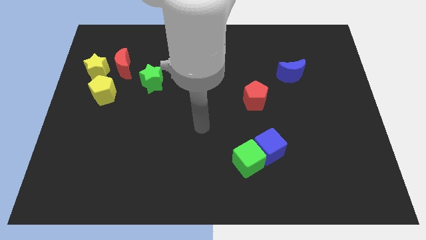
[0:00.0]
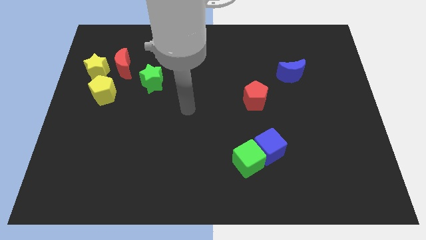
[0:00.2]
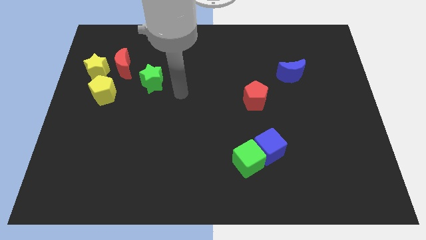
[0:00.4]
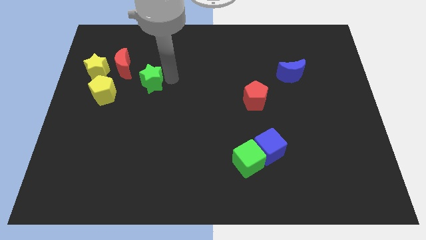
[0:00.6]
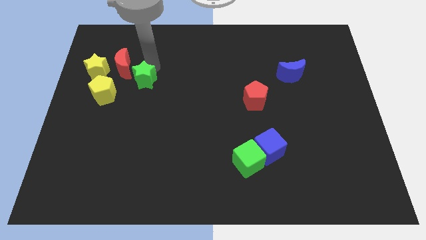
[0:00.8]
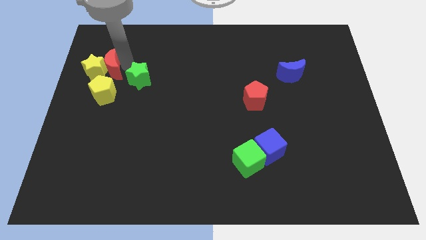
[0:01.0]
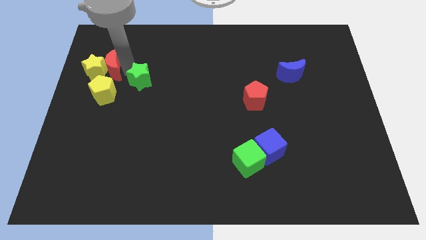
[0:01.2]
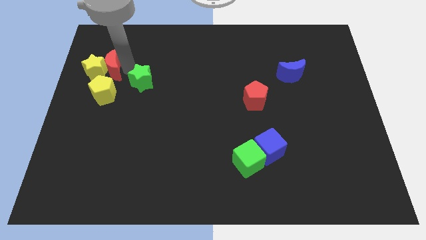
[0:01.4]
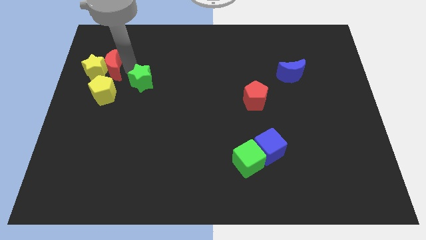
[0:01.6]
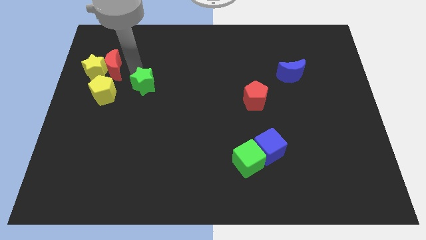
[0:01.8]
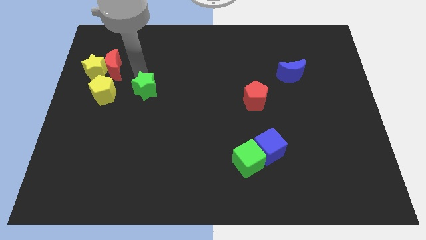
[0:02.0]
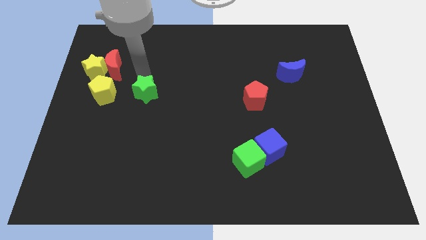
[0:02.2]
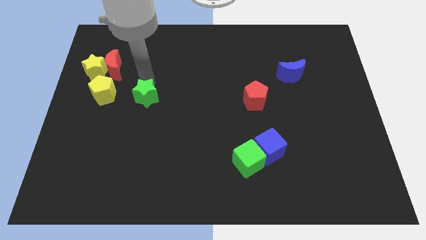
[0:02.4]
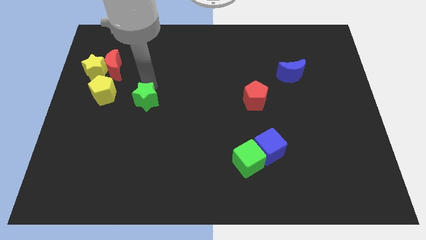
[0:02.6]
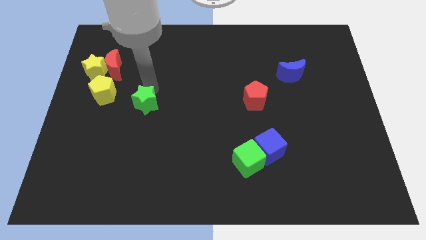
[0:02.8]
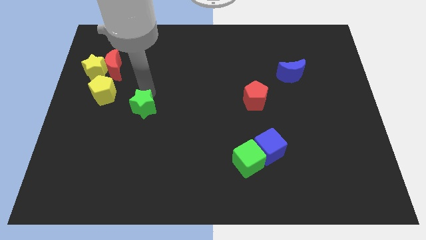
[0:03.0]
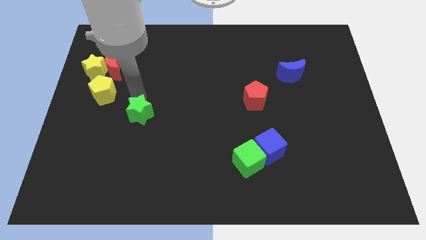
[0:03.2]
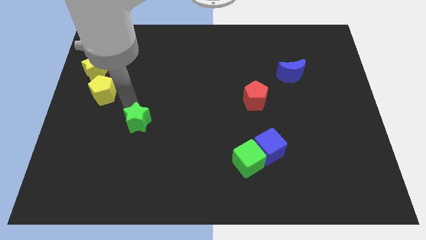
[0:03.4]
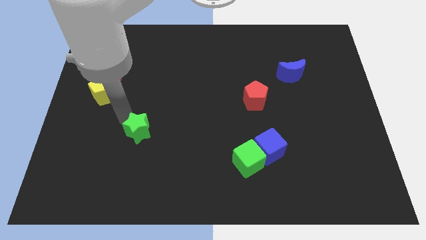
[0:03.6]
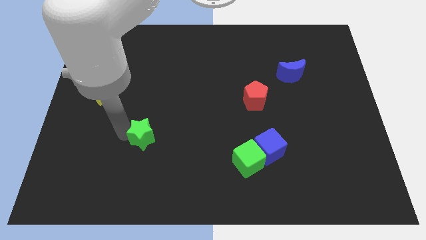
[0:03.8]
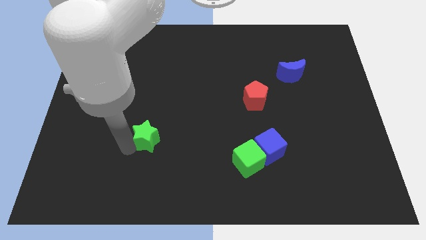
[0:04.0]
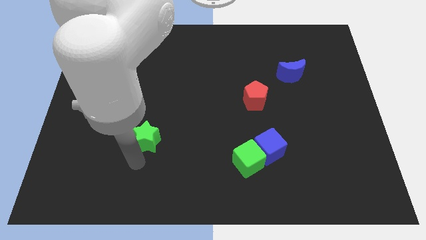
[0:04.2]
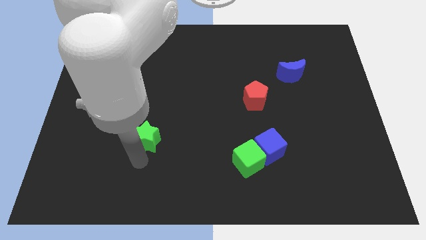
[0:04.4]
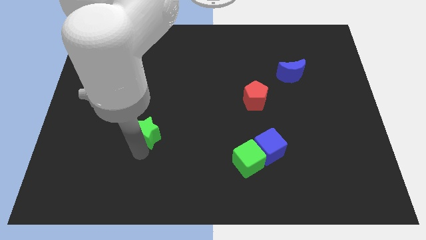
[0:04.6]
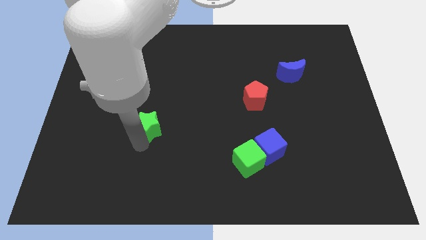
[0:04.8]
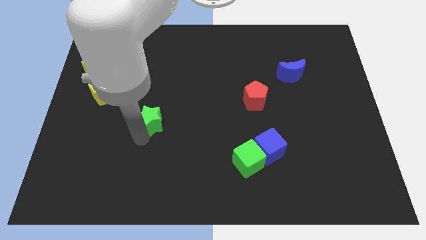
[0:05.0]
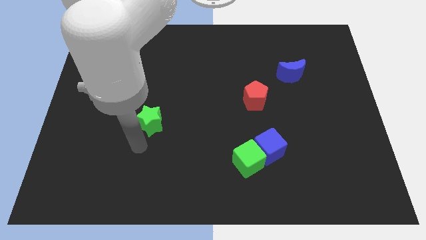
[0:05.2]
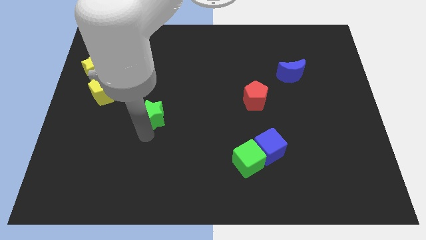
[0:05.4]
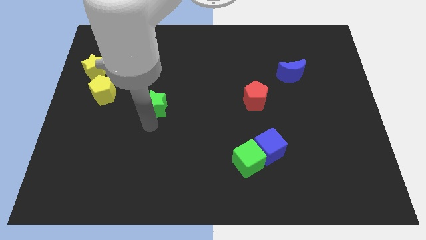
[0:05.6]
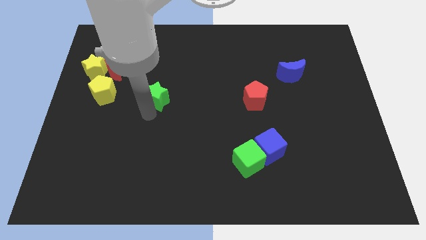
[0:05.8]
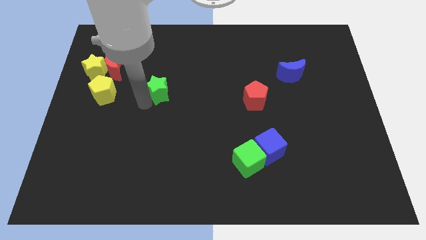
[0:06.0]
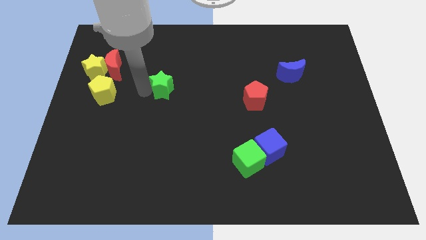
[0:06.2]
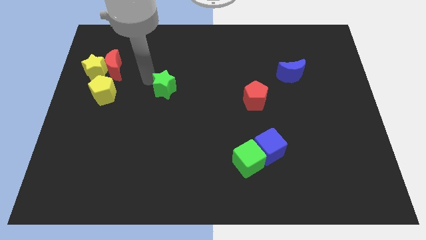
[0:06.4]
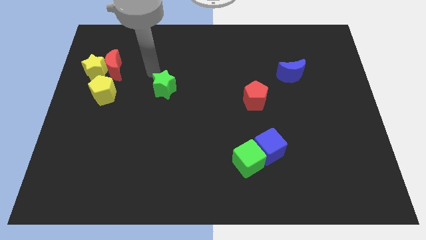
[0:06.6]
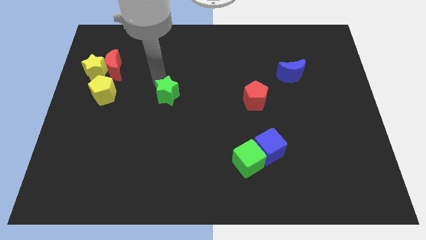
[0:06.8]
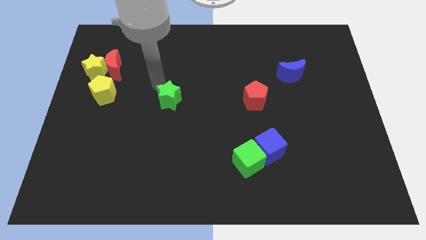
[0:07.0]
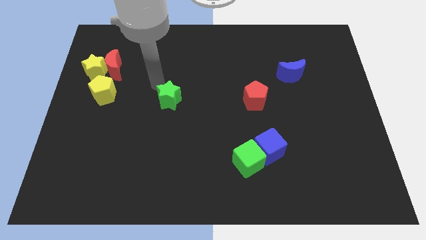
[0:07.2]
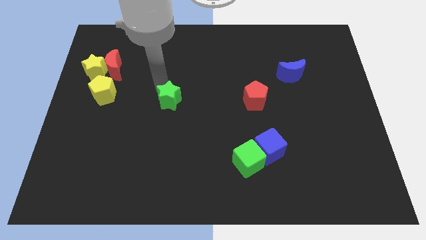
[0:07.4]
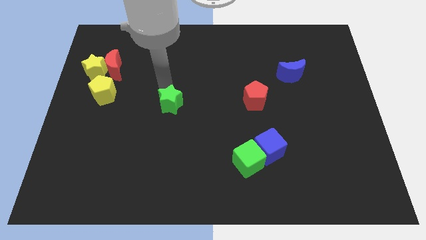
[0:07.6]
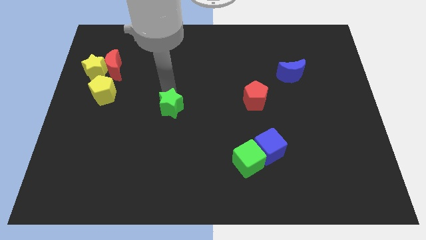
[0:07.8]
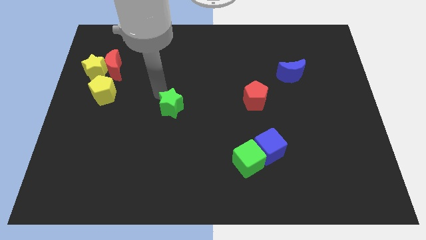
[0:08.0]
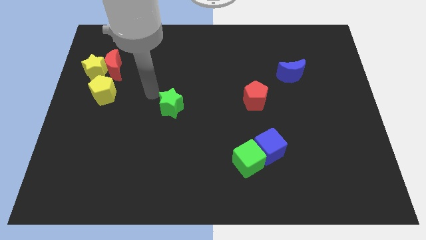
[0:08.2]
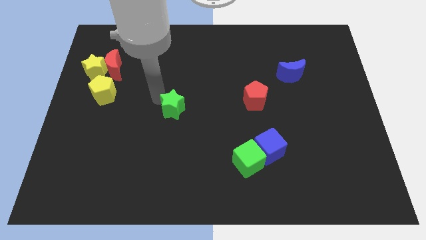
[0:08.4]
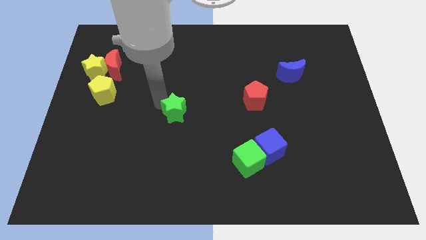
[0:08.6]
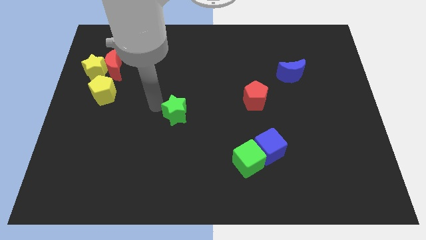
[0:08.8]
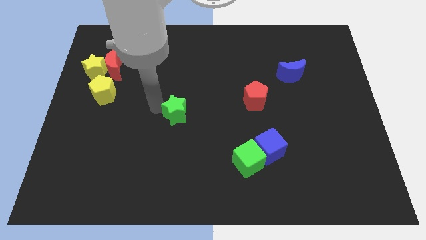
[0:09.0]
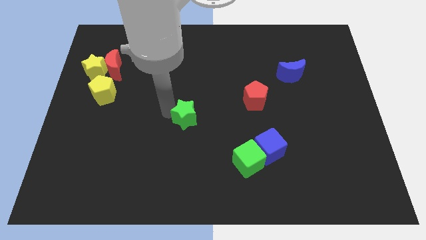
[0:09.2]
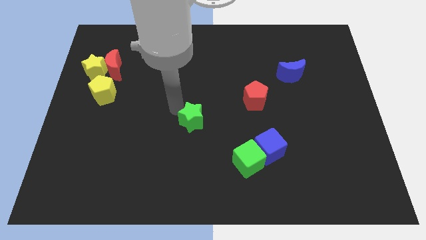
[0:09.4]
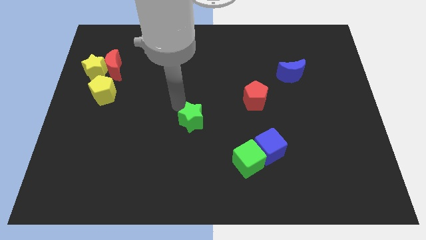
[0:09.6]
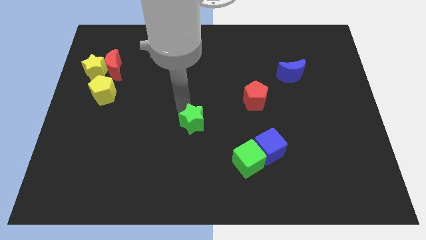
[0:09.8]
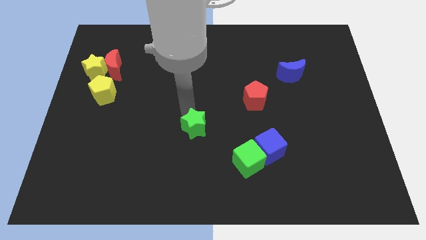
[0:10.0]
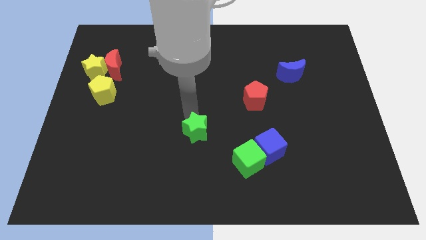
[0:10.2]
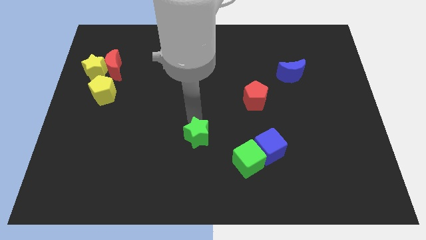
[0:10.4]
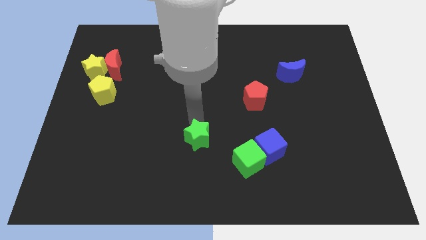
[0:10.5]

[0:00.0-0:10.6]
push the green star to the left side of the blue cube

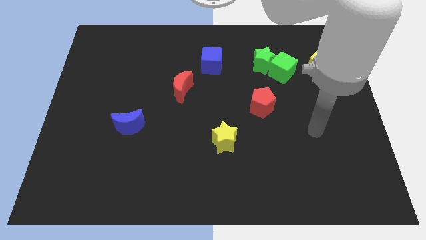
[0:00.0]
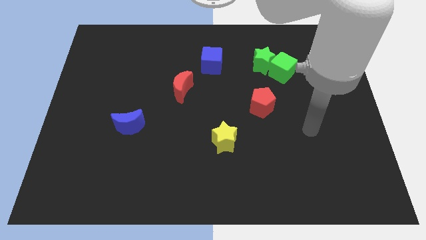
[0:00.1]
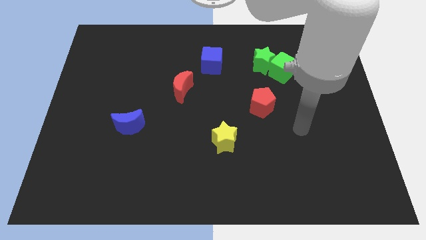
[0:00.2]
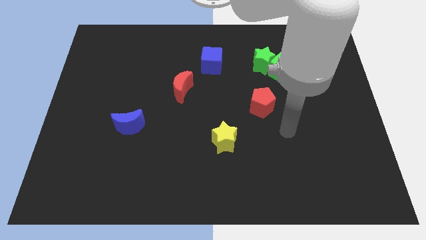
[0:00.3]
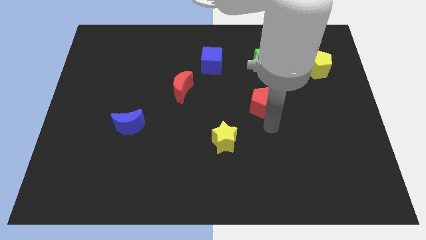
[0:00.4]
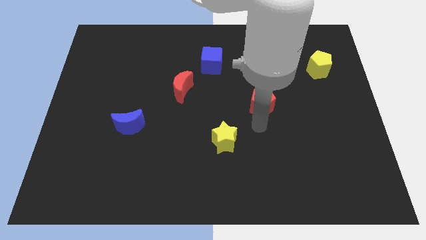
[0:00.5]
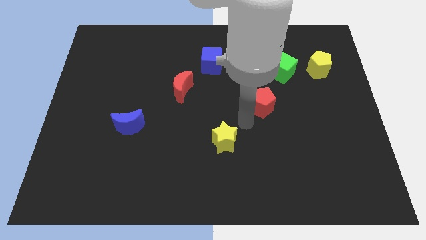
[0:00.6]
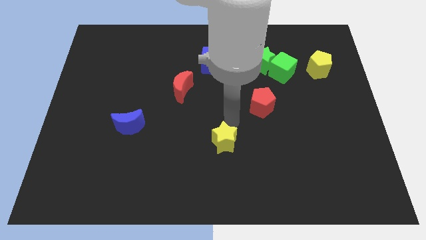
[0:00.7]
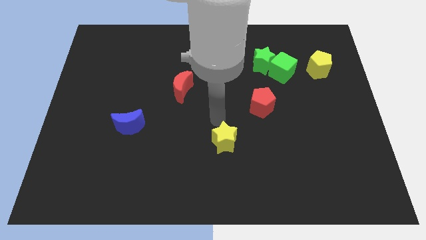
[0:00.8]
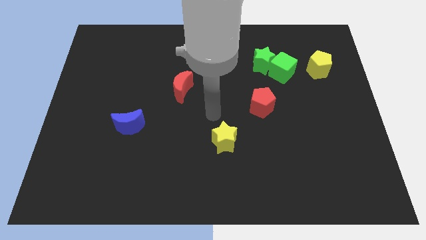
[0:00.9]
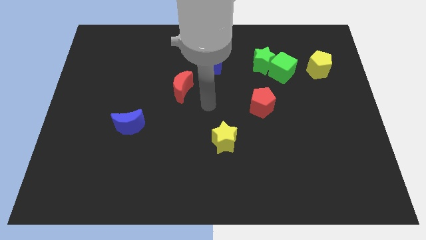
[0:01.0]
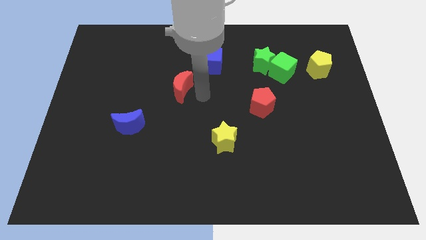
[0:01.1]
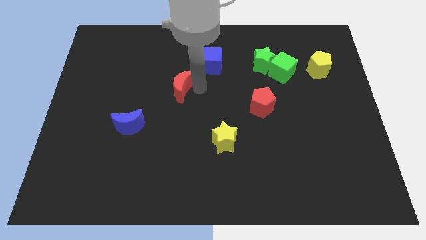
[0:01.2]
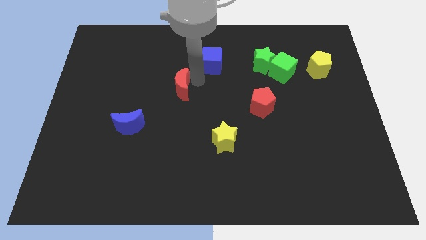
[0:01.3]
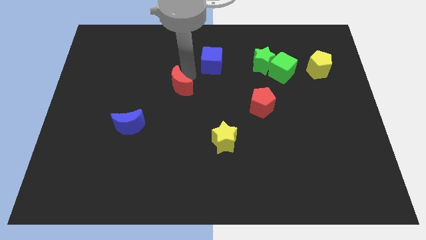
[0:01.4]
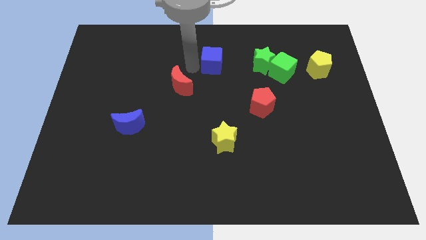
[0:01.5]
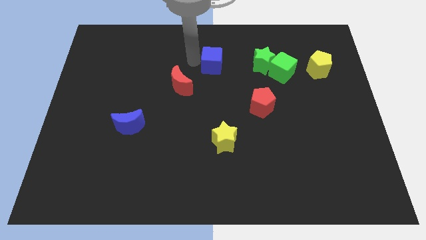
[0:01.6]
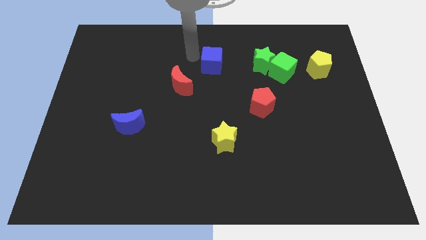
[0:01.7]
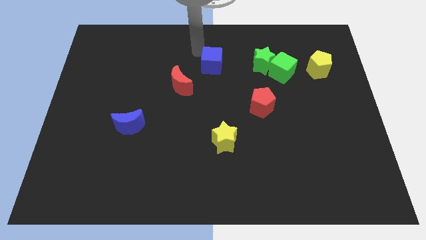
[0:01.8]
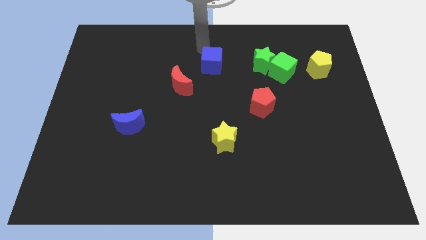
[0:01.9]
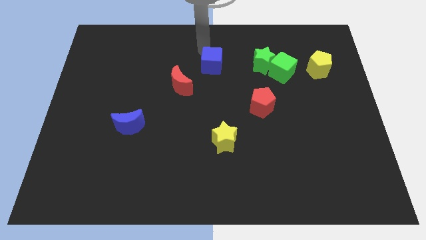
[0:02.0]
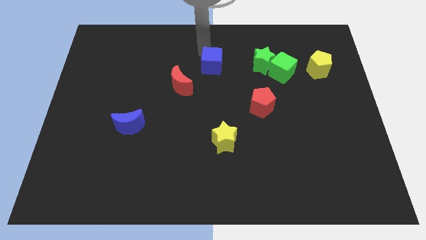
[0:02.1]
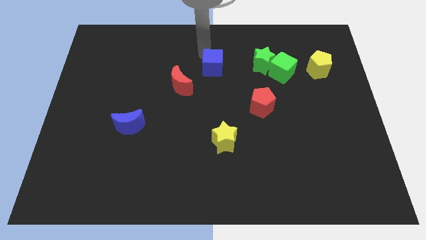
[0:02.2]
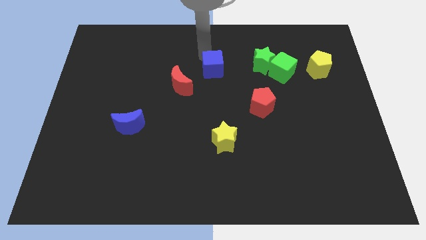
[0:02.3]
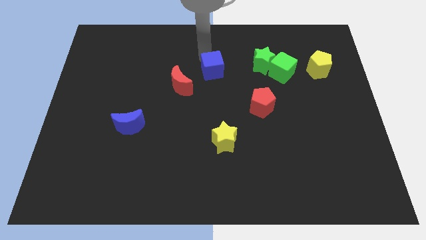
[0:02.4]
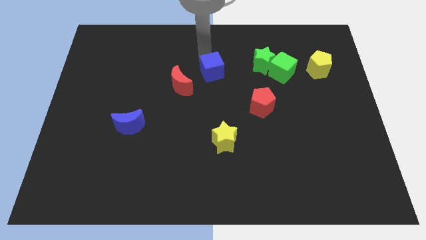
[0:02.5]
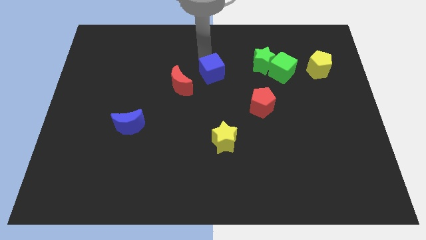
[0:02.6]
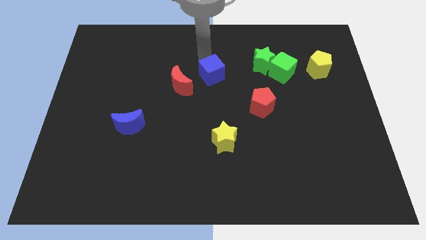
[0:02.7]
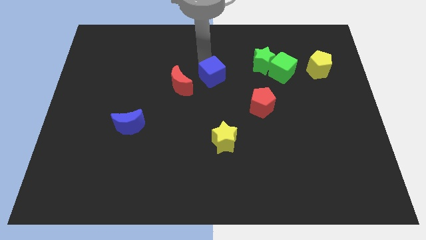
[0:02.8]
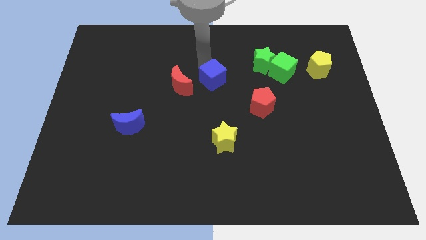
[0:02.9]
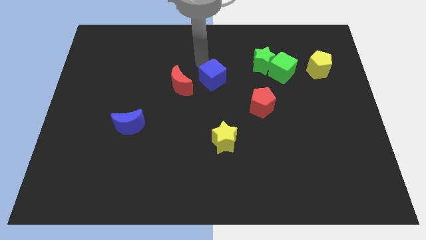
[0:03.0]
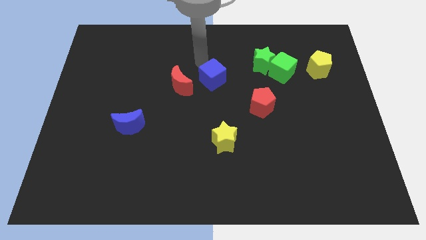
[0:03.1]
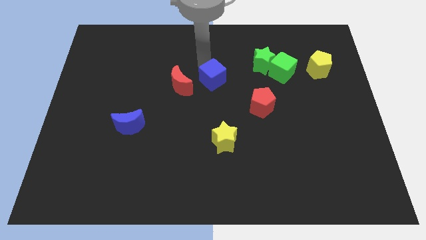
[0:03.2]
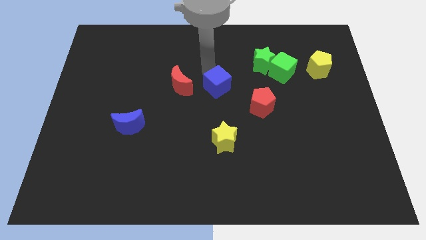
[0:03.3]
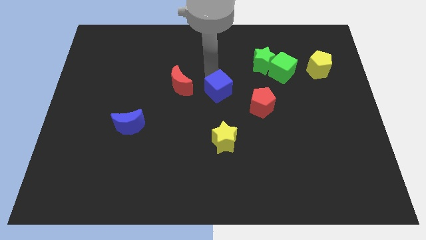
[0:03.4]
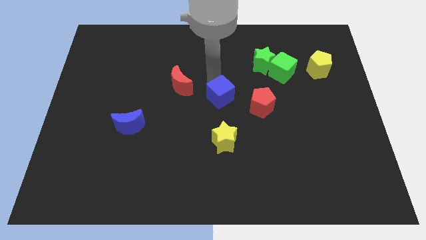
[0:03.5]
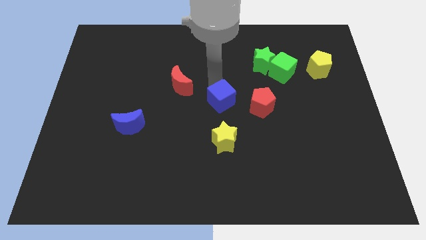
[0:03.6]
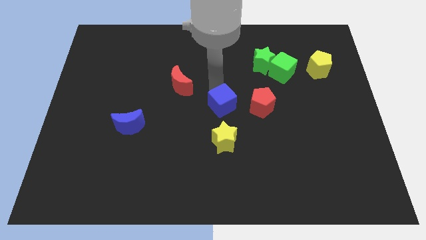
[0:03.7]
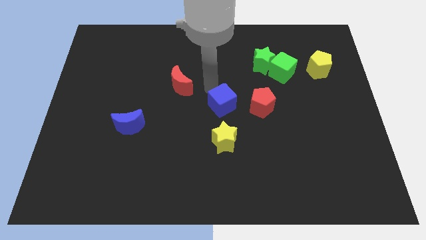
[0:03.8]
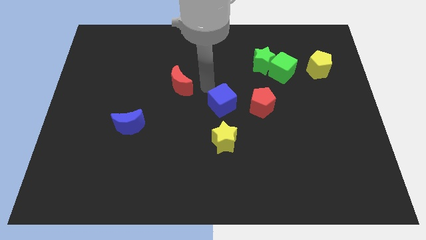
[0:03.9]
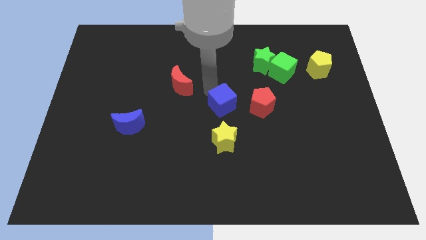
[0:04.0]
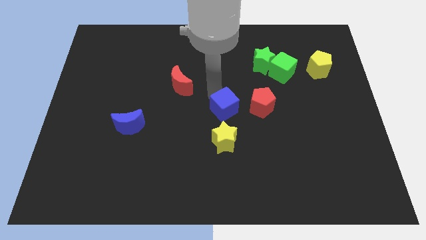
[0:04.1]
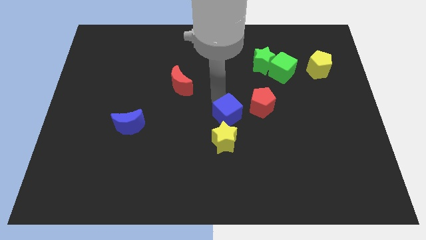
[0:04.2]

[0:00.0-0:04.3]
put the blue cube diagonally down and to the left of the red pentagon
